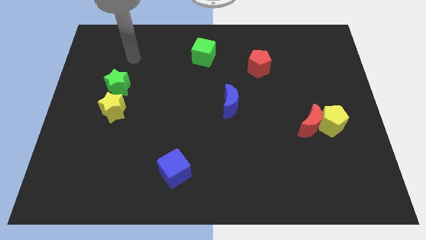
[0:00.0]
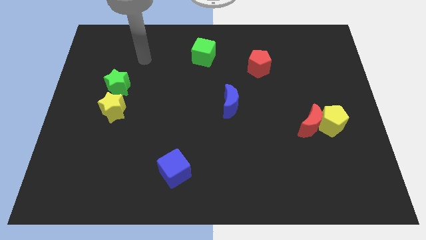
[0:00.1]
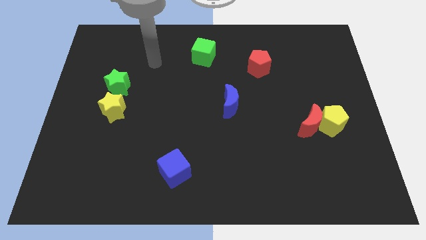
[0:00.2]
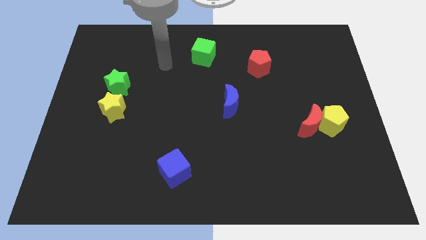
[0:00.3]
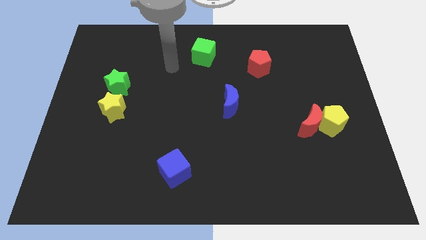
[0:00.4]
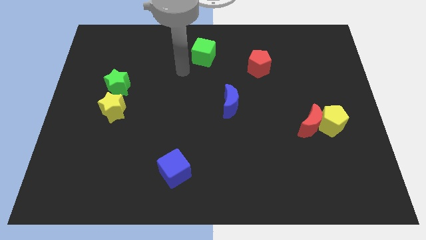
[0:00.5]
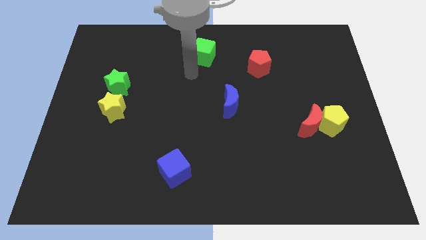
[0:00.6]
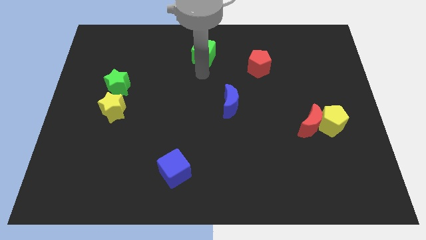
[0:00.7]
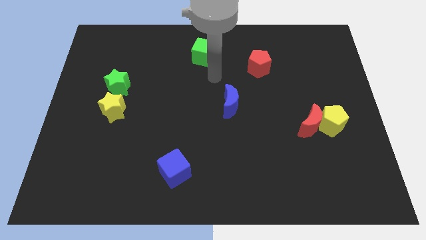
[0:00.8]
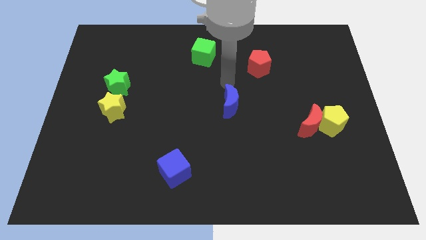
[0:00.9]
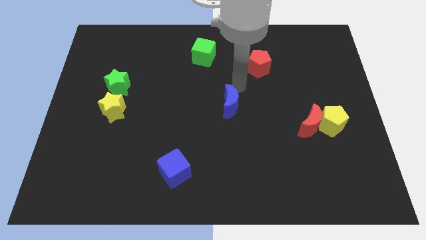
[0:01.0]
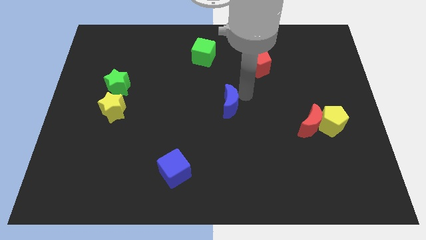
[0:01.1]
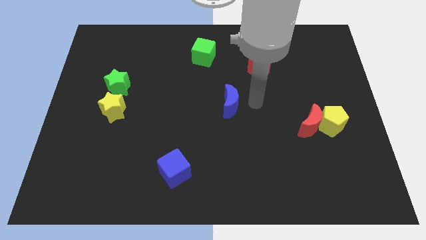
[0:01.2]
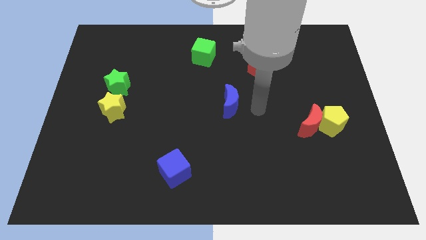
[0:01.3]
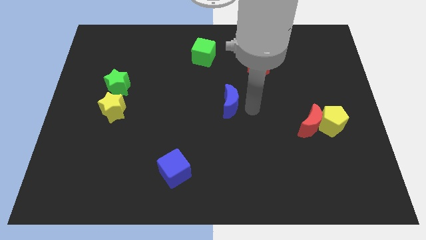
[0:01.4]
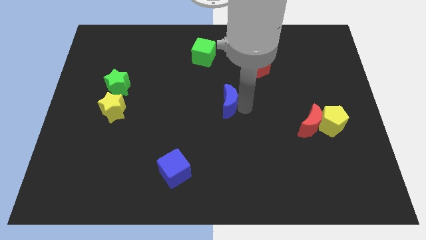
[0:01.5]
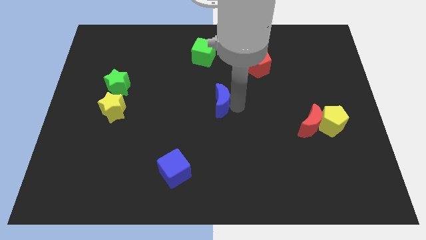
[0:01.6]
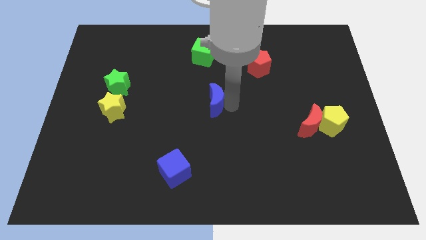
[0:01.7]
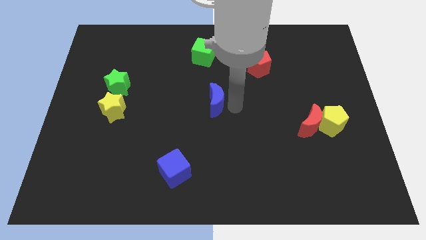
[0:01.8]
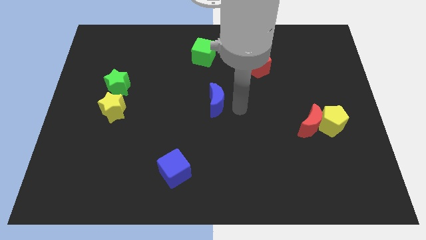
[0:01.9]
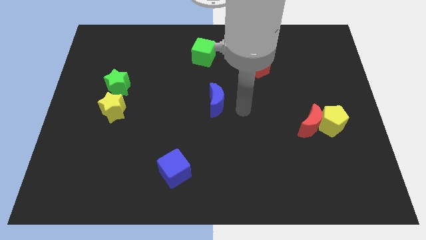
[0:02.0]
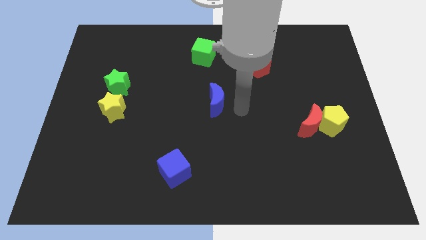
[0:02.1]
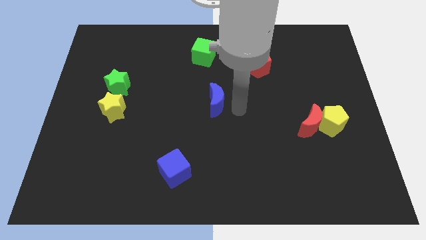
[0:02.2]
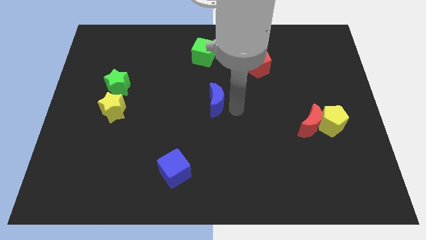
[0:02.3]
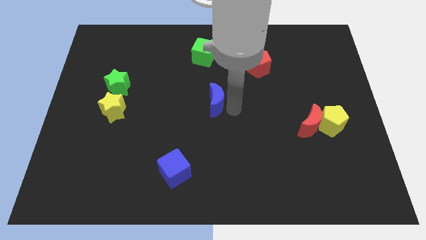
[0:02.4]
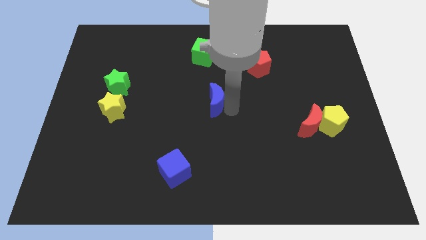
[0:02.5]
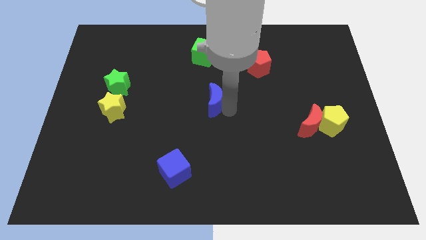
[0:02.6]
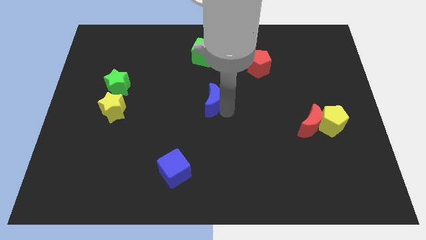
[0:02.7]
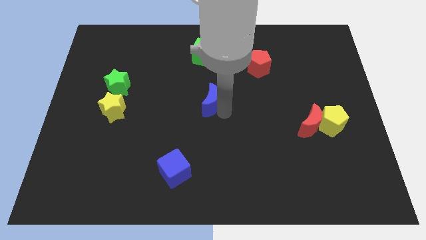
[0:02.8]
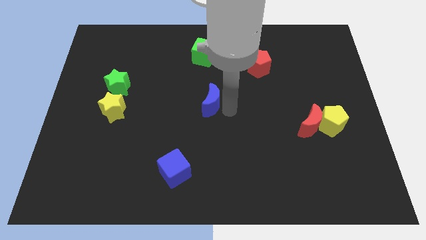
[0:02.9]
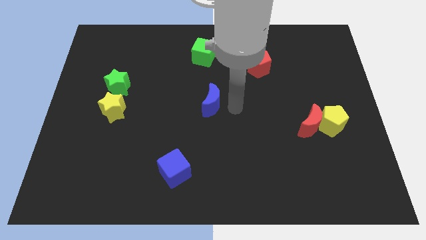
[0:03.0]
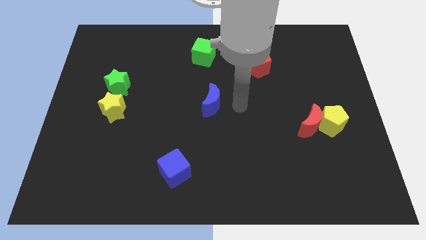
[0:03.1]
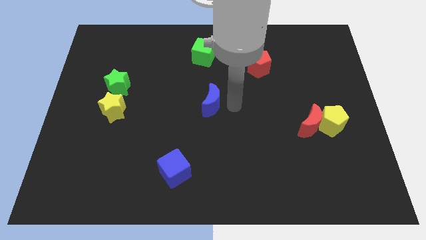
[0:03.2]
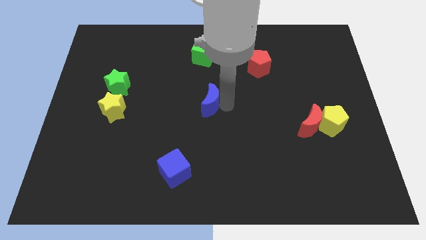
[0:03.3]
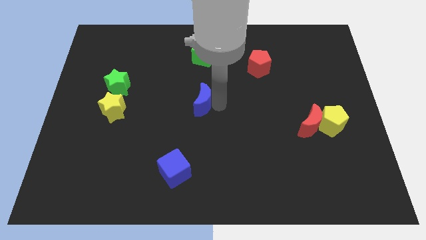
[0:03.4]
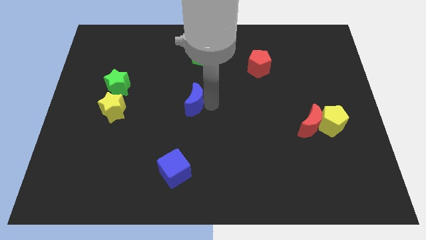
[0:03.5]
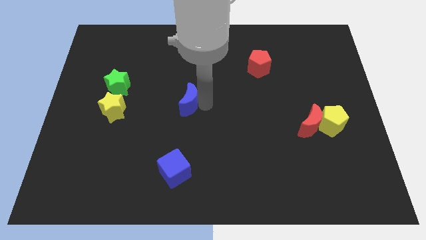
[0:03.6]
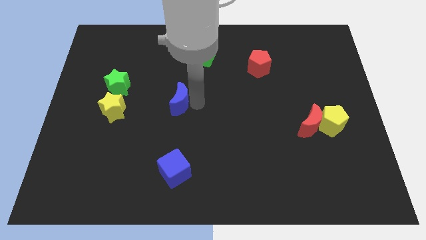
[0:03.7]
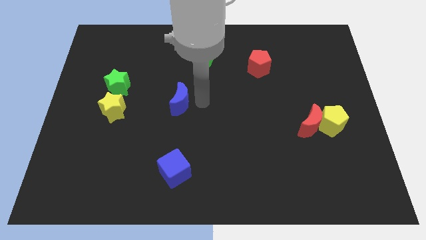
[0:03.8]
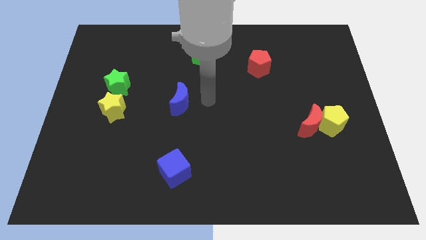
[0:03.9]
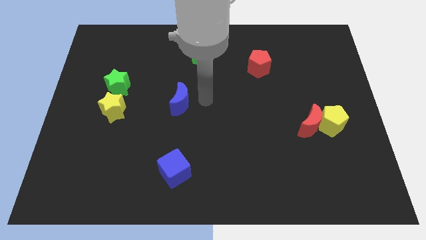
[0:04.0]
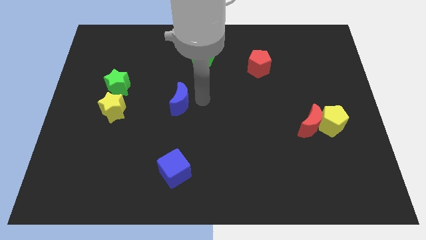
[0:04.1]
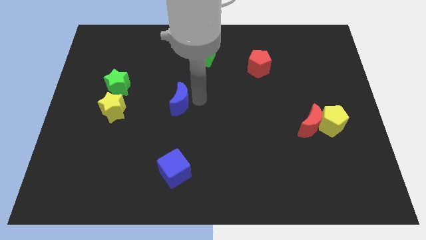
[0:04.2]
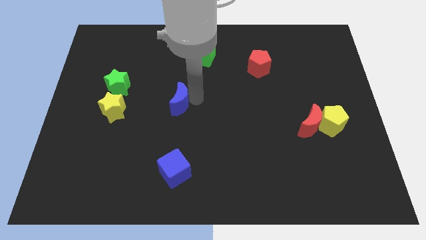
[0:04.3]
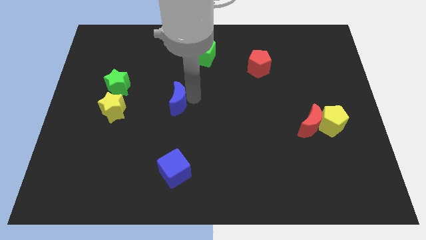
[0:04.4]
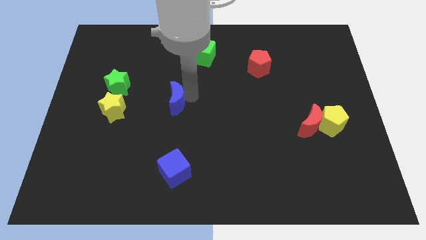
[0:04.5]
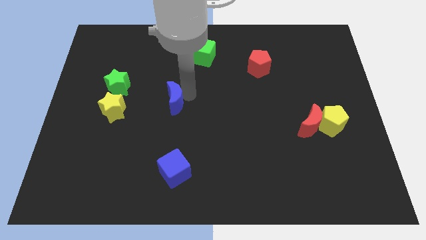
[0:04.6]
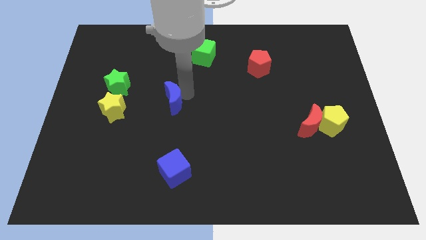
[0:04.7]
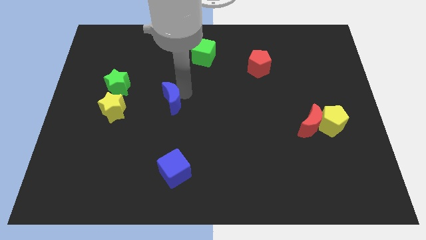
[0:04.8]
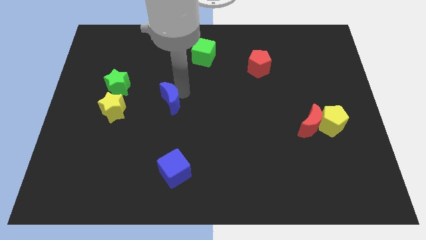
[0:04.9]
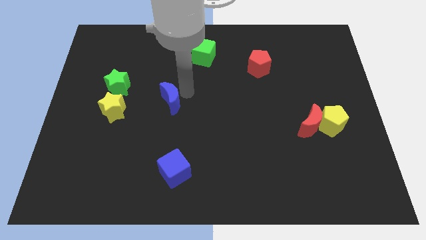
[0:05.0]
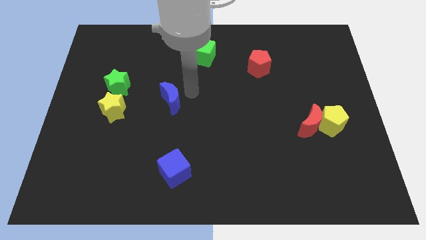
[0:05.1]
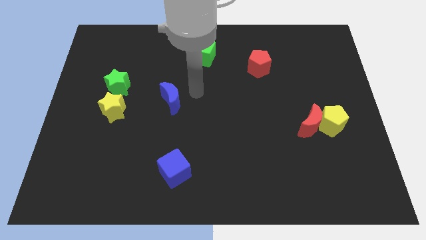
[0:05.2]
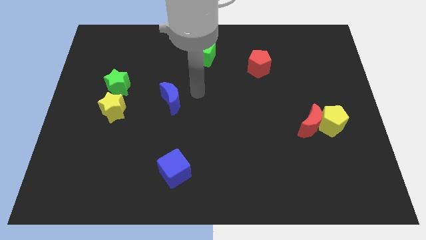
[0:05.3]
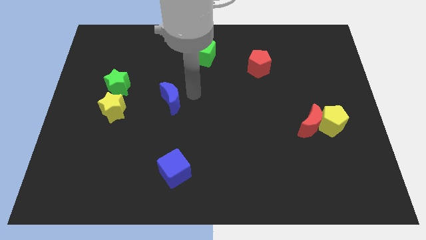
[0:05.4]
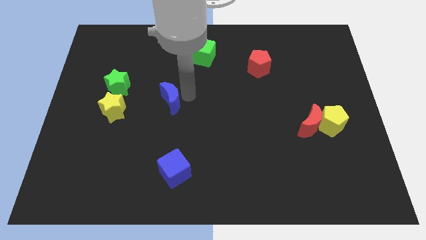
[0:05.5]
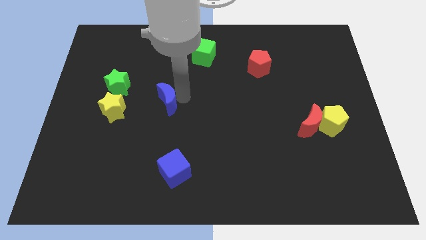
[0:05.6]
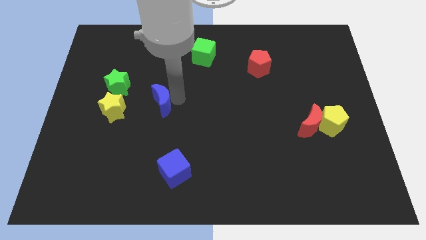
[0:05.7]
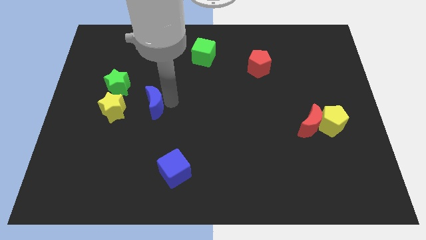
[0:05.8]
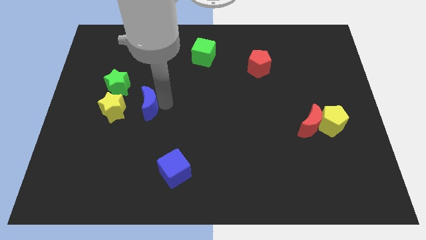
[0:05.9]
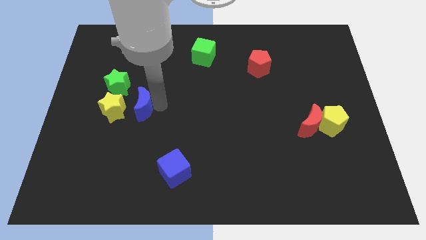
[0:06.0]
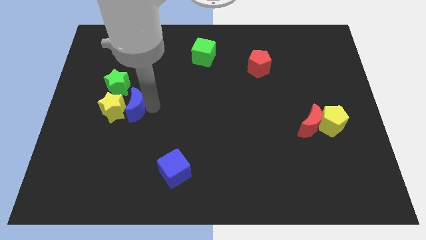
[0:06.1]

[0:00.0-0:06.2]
push the blue moon next to the yellow star

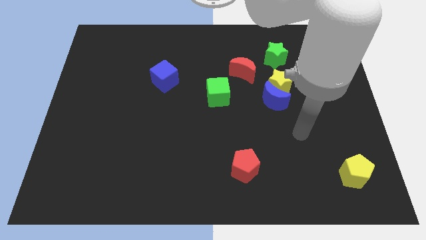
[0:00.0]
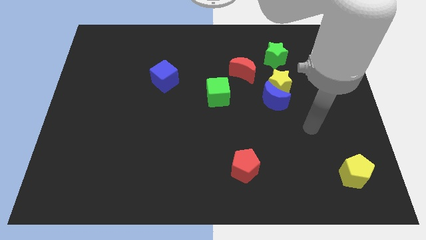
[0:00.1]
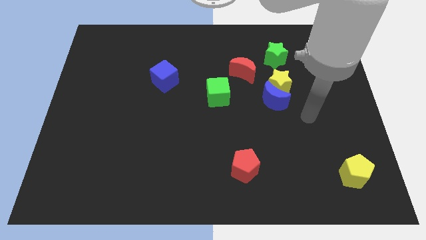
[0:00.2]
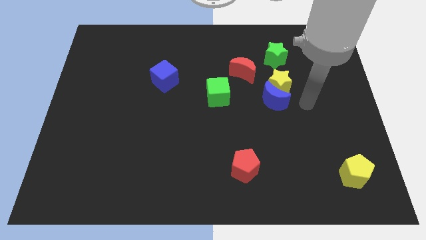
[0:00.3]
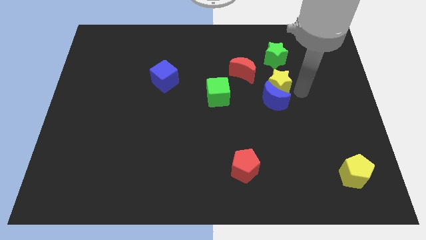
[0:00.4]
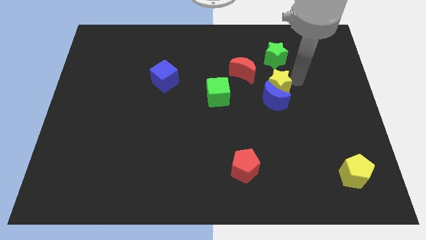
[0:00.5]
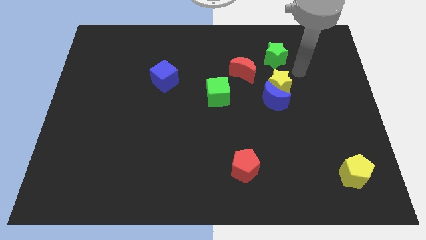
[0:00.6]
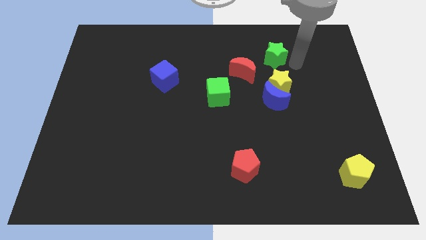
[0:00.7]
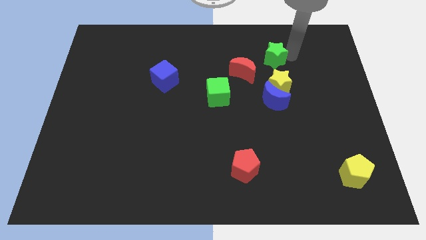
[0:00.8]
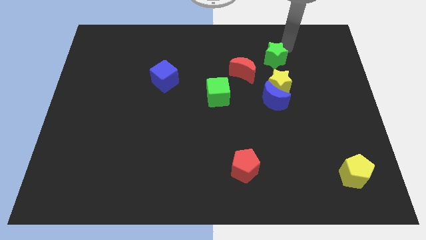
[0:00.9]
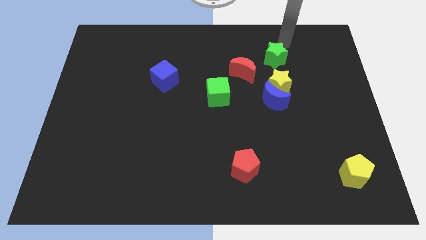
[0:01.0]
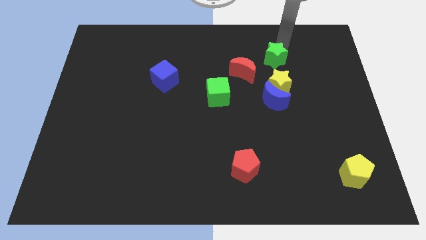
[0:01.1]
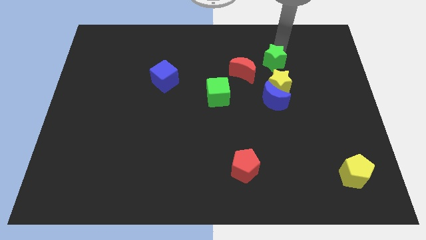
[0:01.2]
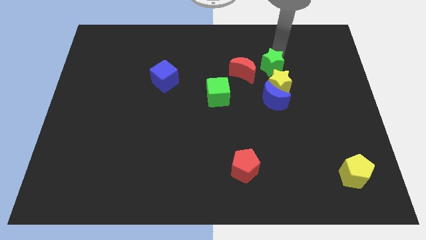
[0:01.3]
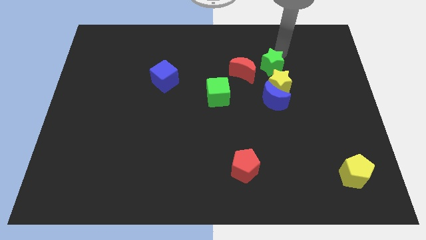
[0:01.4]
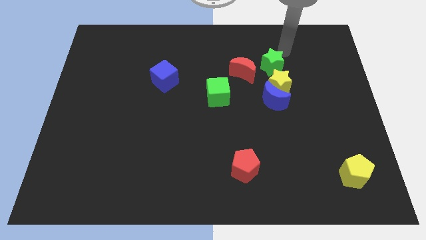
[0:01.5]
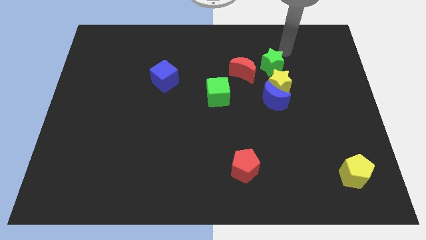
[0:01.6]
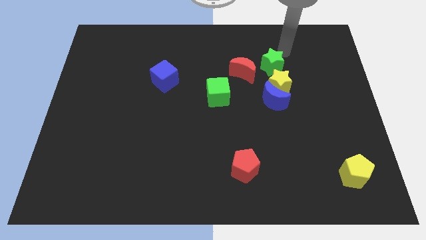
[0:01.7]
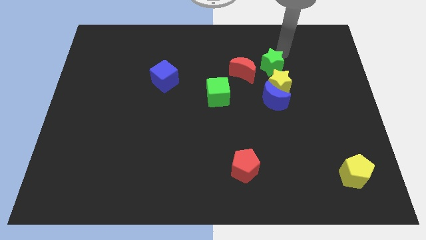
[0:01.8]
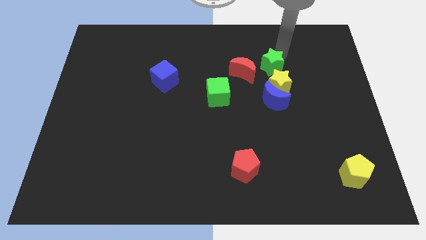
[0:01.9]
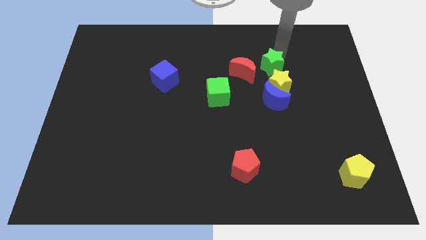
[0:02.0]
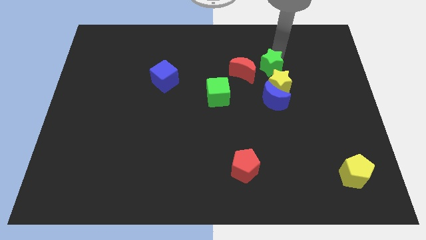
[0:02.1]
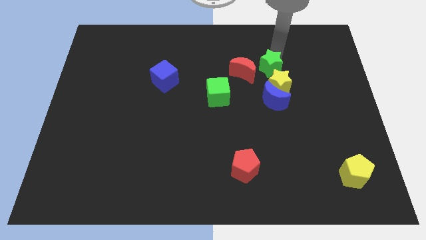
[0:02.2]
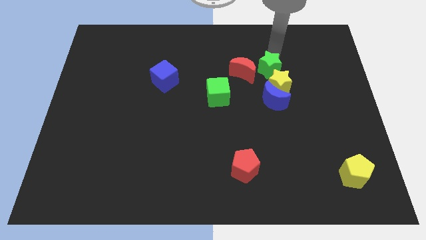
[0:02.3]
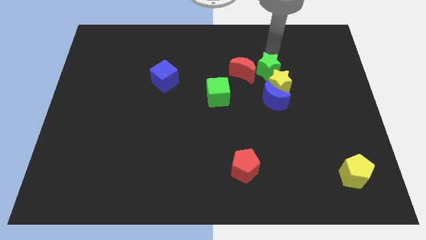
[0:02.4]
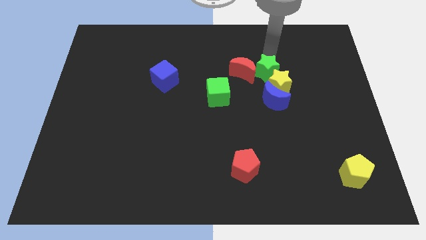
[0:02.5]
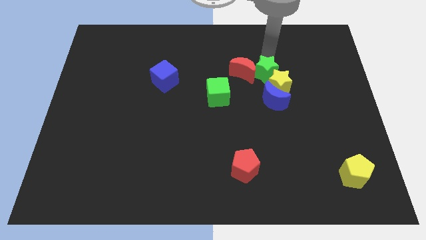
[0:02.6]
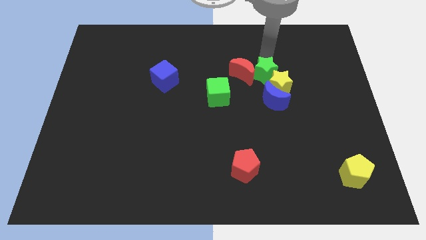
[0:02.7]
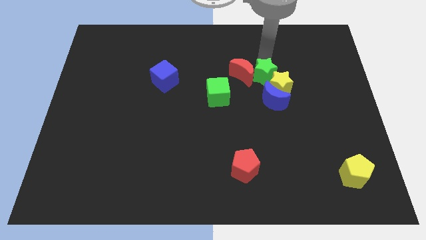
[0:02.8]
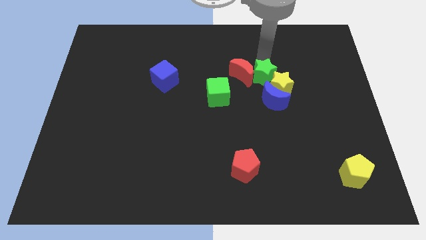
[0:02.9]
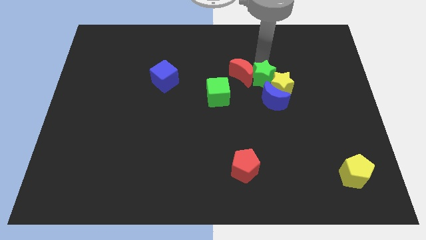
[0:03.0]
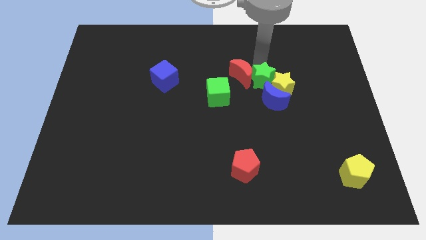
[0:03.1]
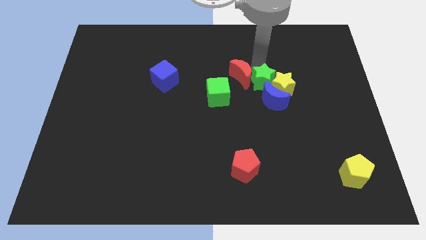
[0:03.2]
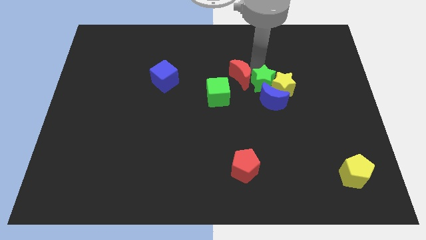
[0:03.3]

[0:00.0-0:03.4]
put the green star next to the blue moon
